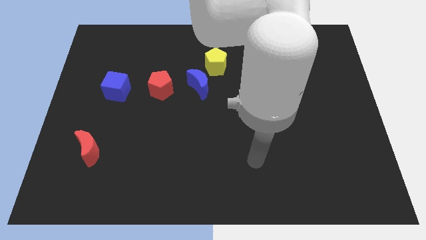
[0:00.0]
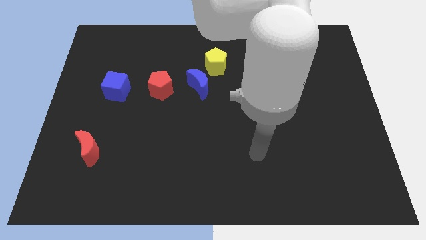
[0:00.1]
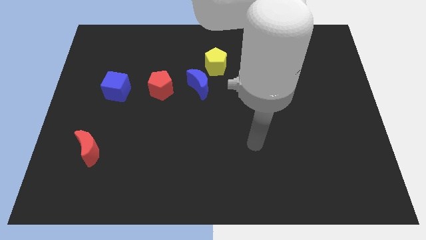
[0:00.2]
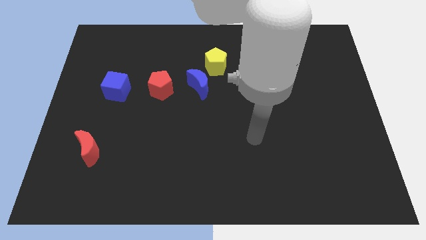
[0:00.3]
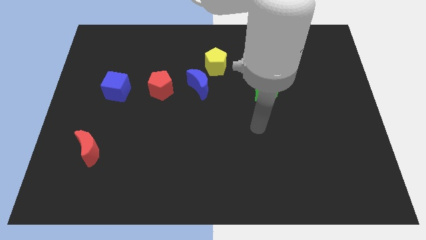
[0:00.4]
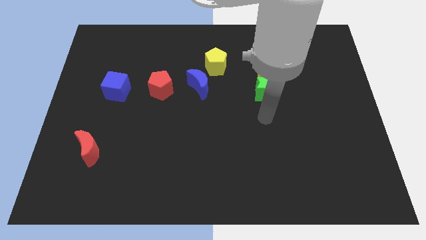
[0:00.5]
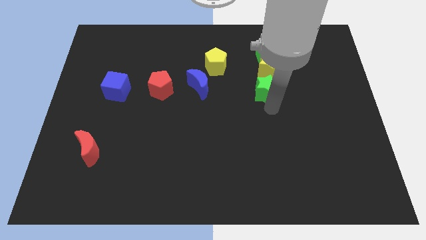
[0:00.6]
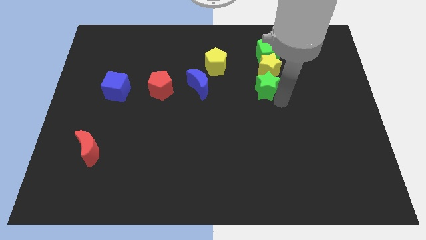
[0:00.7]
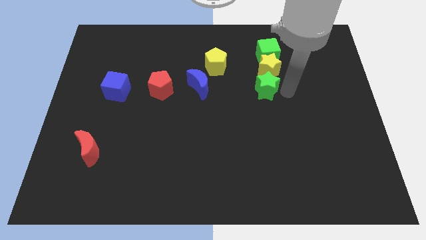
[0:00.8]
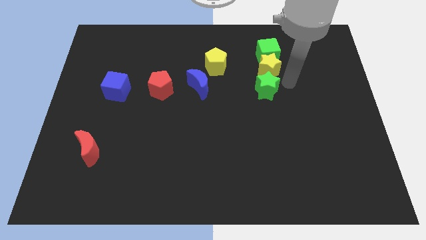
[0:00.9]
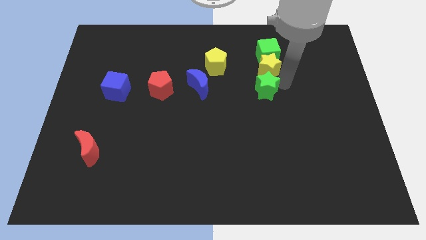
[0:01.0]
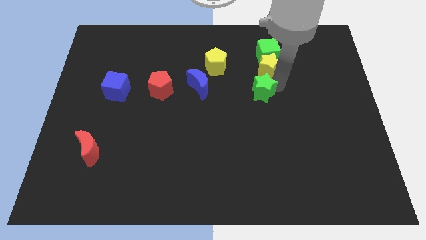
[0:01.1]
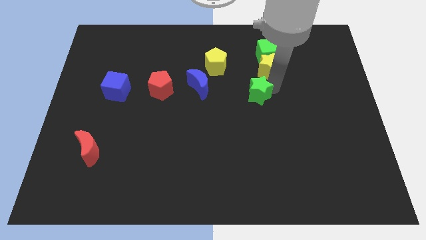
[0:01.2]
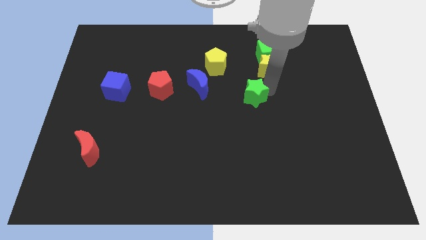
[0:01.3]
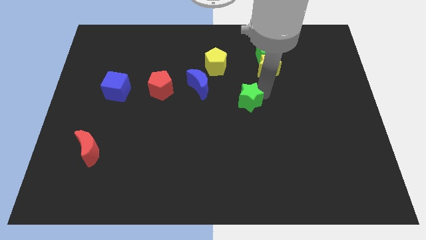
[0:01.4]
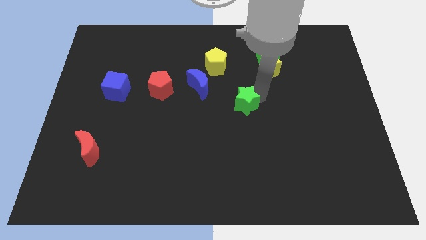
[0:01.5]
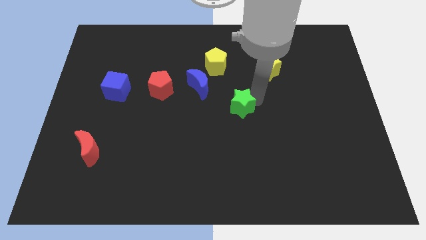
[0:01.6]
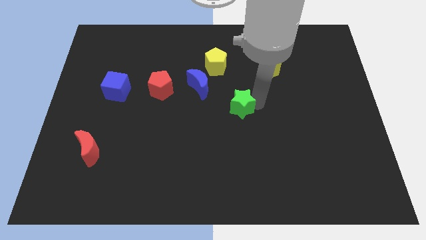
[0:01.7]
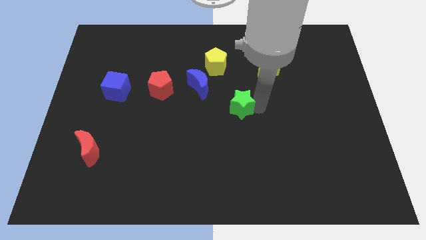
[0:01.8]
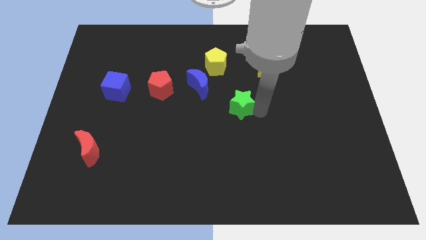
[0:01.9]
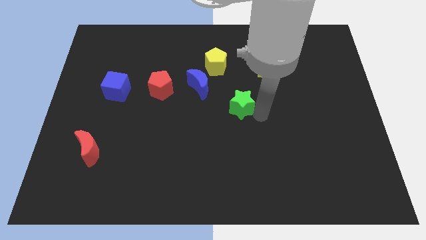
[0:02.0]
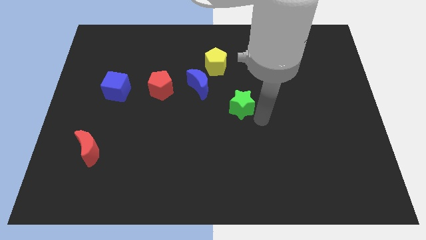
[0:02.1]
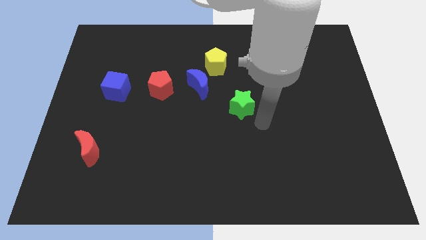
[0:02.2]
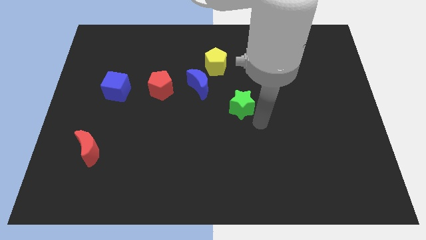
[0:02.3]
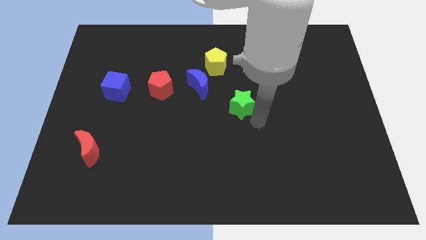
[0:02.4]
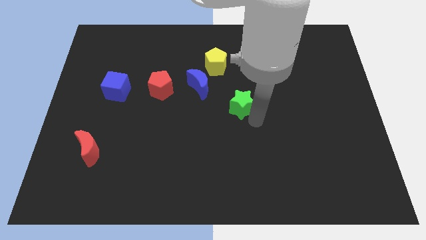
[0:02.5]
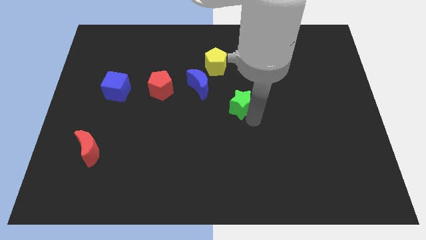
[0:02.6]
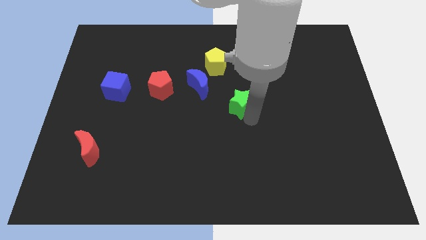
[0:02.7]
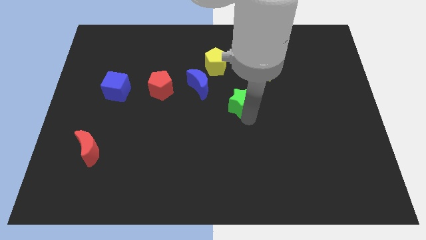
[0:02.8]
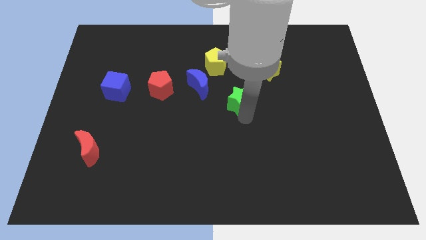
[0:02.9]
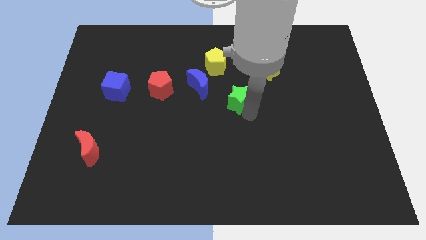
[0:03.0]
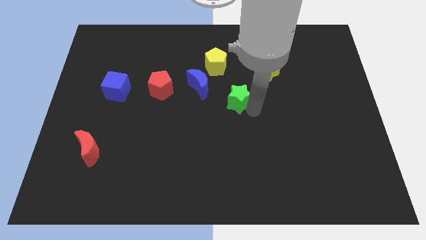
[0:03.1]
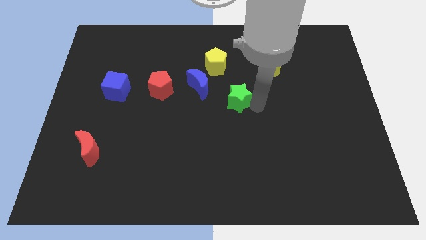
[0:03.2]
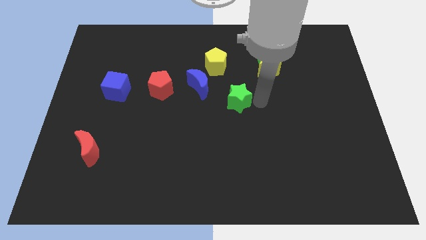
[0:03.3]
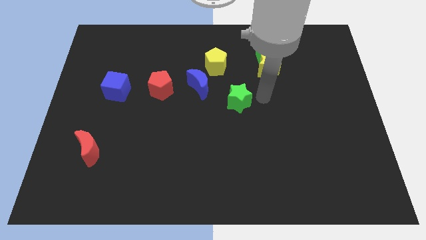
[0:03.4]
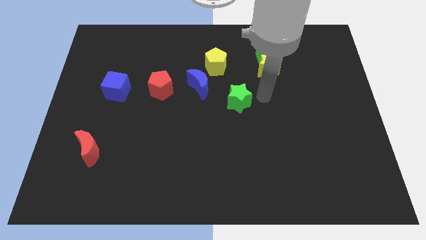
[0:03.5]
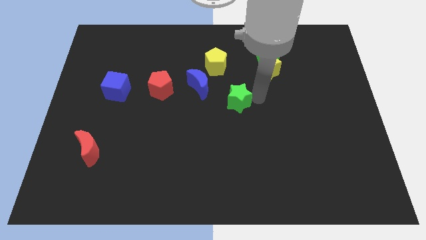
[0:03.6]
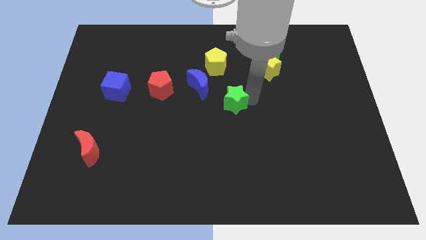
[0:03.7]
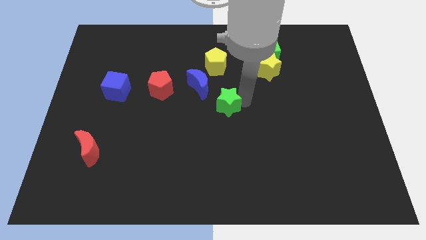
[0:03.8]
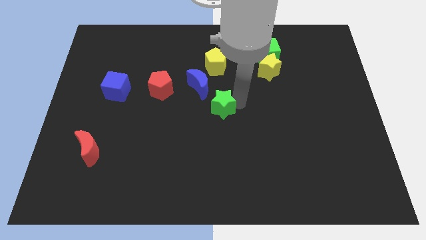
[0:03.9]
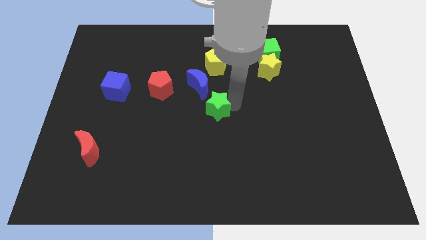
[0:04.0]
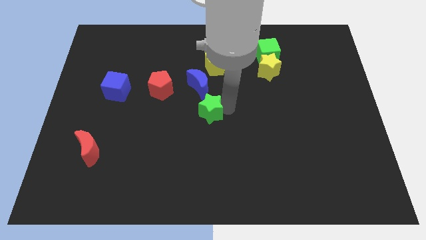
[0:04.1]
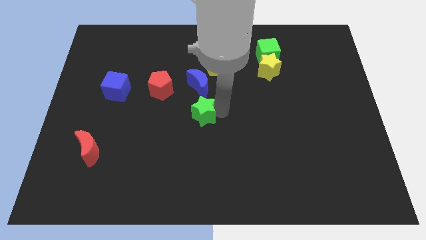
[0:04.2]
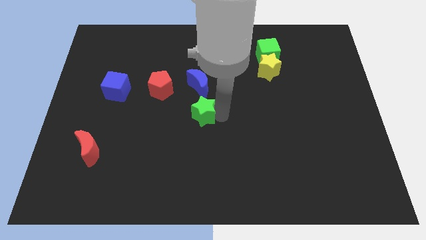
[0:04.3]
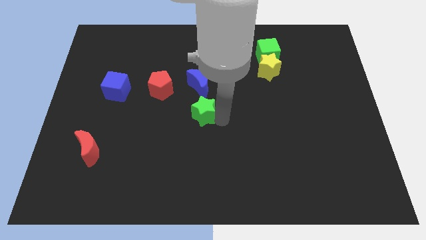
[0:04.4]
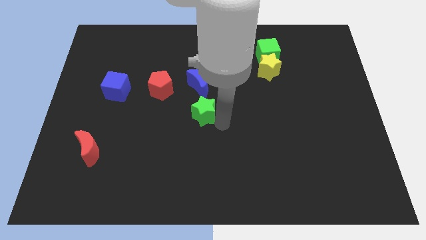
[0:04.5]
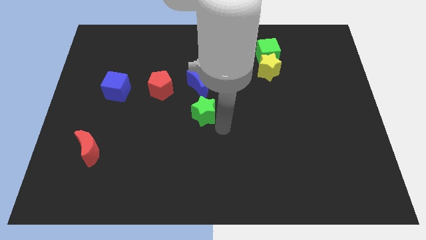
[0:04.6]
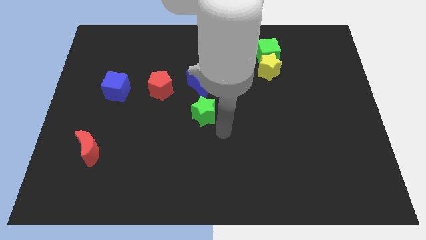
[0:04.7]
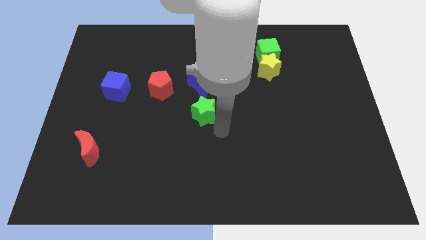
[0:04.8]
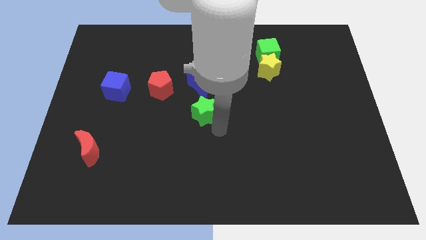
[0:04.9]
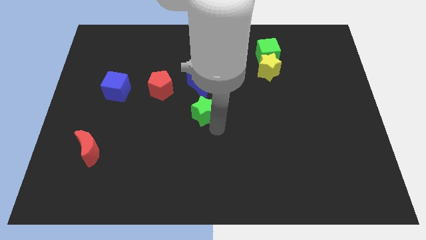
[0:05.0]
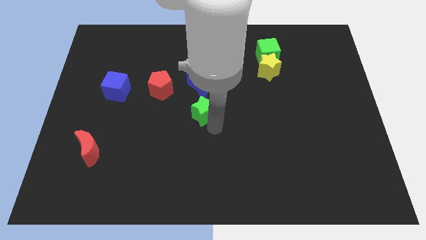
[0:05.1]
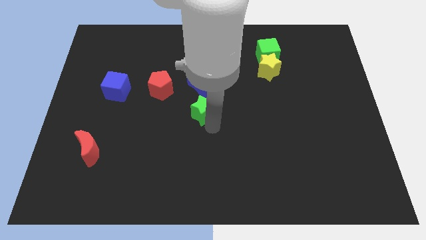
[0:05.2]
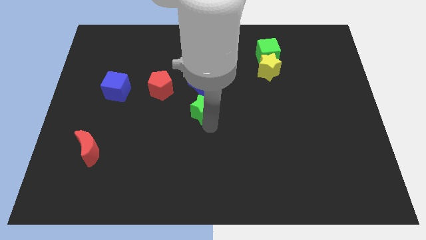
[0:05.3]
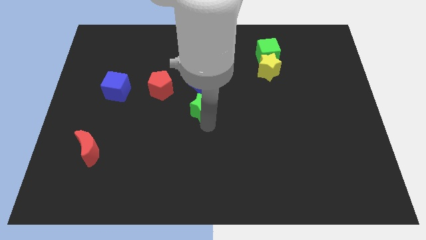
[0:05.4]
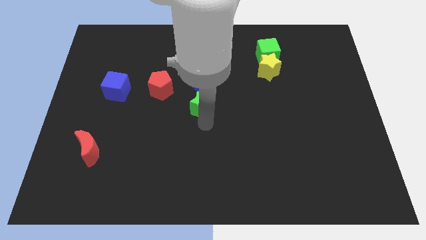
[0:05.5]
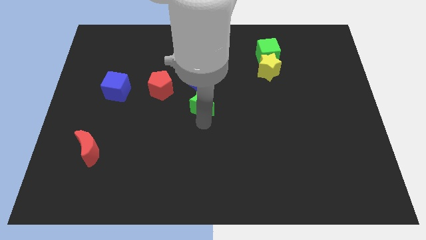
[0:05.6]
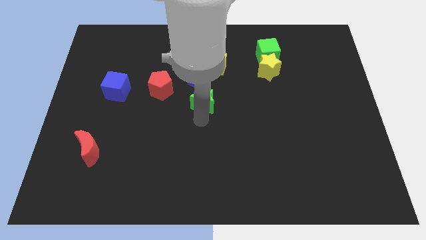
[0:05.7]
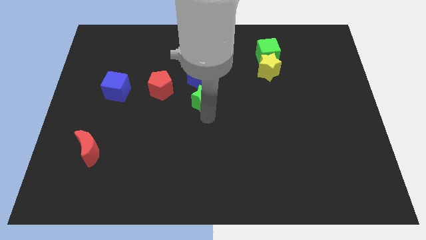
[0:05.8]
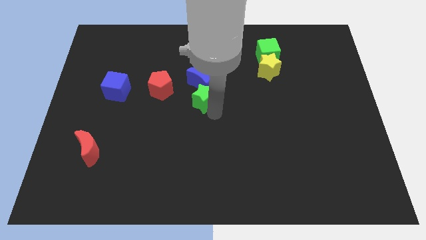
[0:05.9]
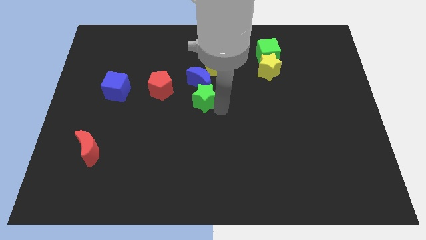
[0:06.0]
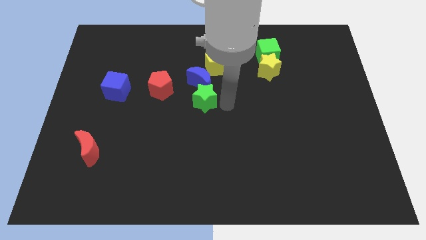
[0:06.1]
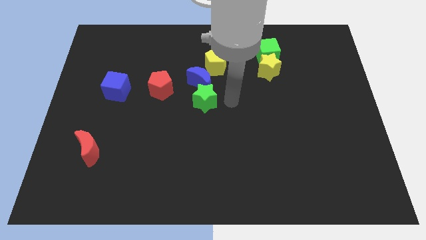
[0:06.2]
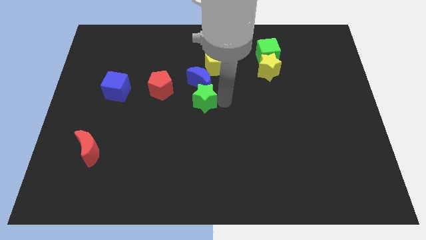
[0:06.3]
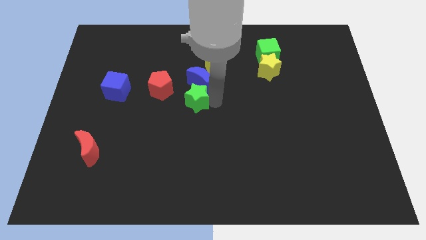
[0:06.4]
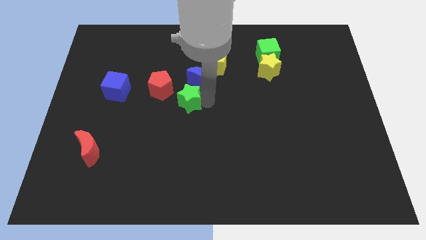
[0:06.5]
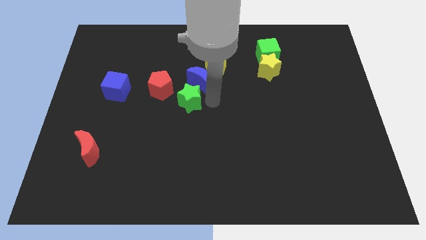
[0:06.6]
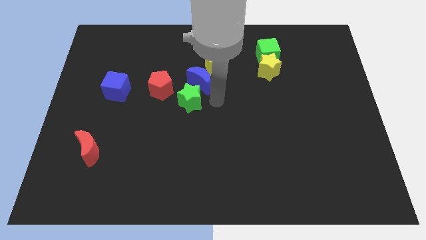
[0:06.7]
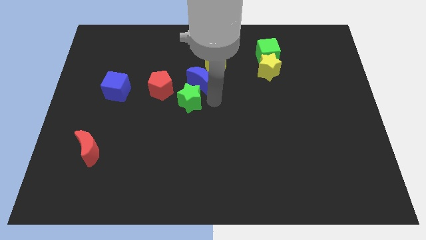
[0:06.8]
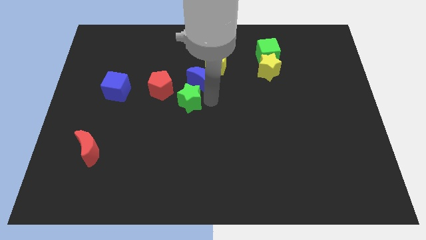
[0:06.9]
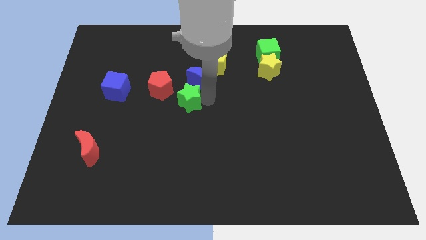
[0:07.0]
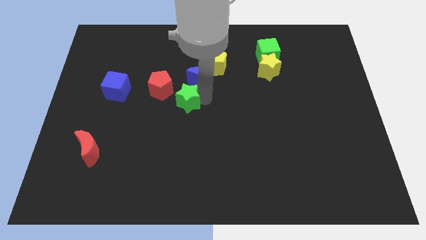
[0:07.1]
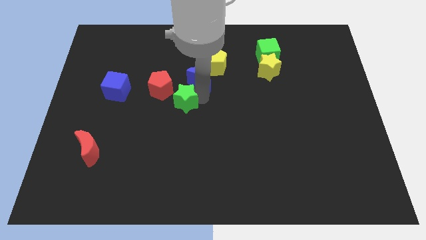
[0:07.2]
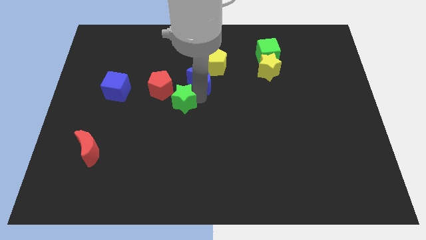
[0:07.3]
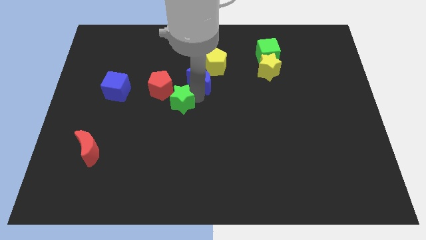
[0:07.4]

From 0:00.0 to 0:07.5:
push the green star left

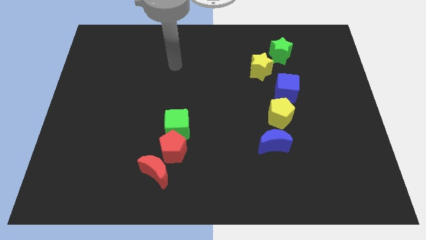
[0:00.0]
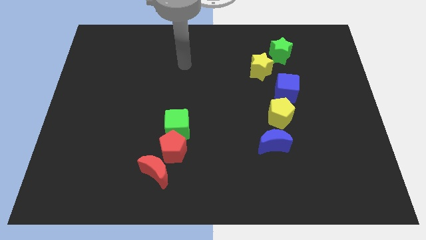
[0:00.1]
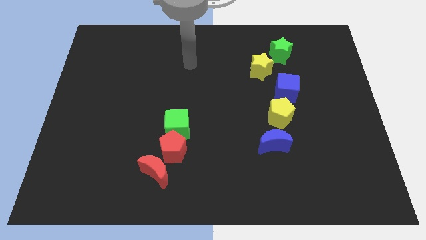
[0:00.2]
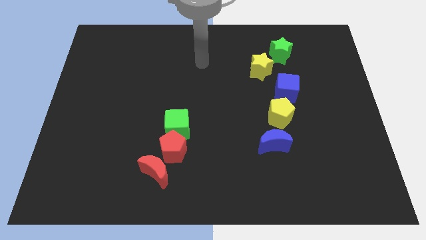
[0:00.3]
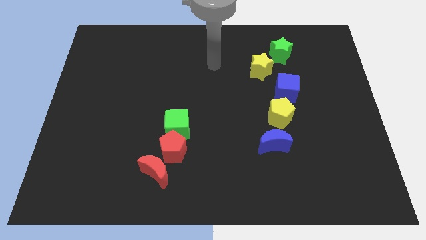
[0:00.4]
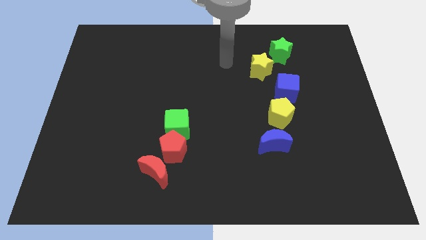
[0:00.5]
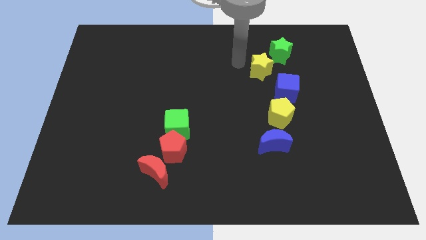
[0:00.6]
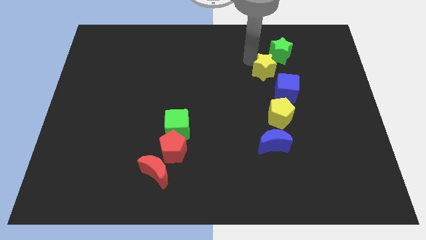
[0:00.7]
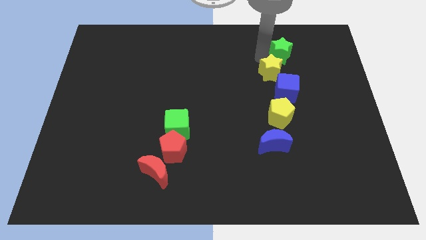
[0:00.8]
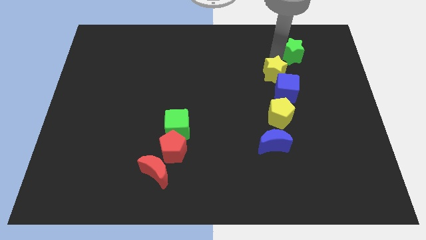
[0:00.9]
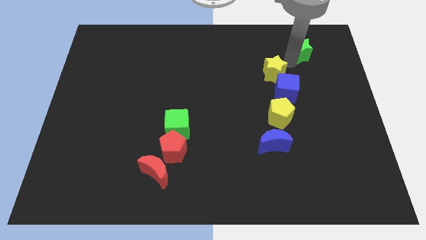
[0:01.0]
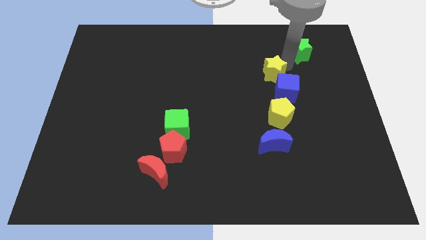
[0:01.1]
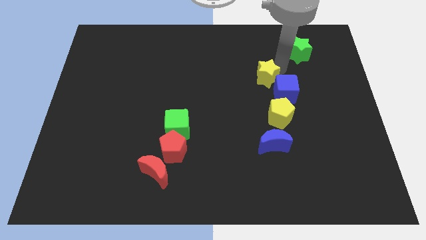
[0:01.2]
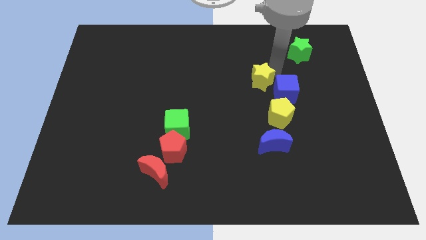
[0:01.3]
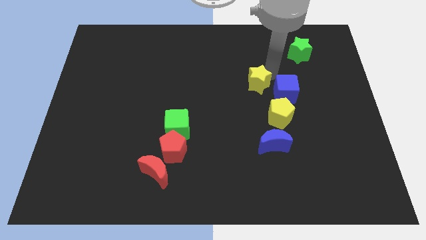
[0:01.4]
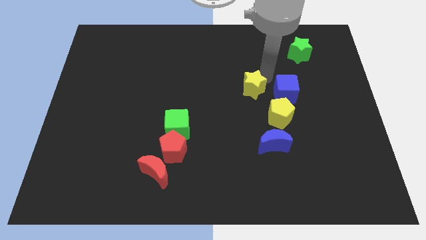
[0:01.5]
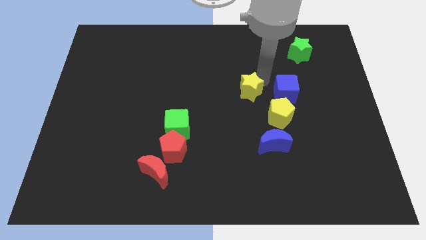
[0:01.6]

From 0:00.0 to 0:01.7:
move the yellow star downwards and then left somewhat
